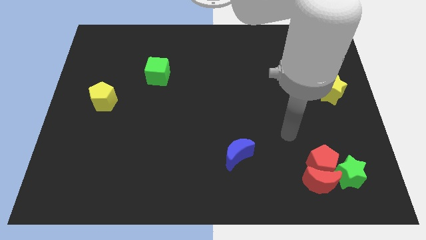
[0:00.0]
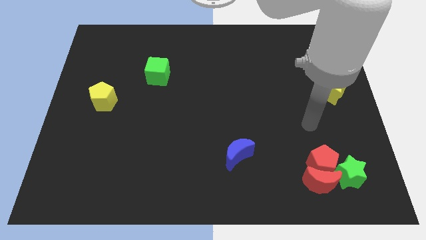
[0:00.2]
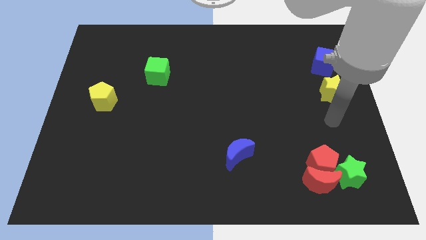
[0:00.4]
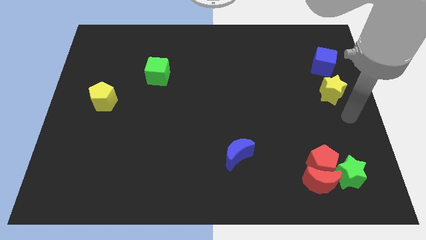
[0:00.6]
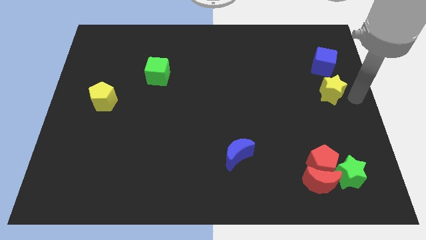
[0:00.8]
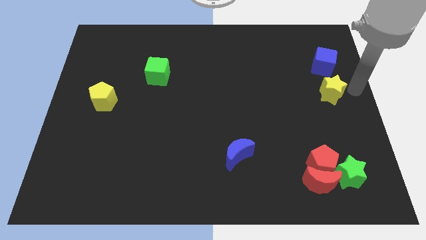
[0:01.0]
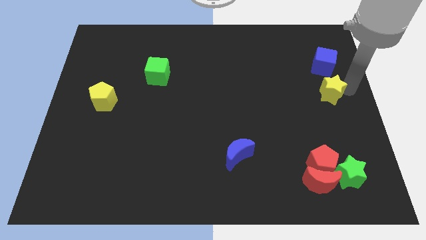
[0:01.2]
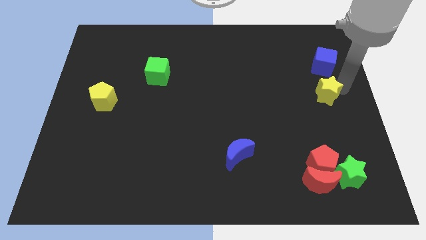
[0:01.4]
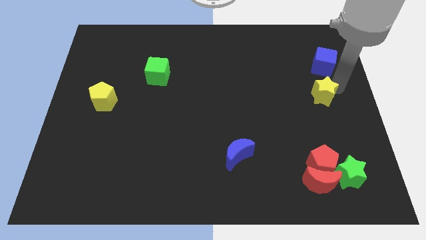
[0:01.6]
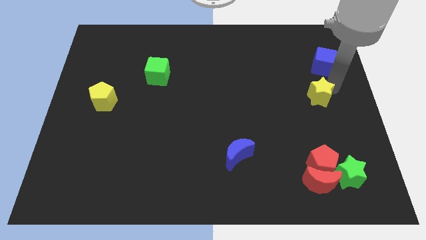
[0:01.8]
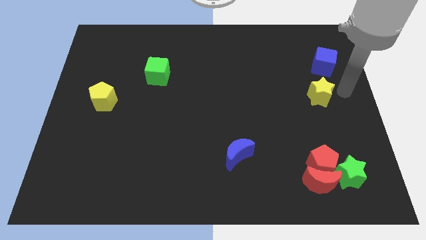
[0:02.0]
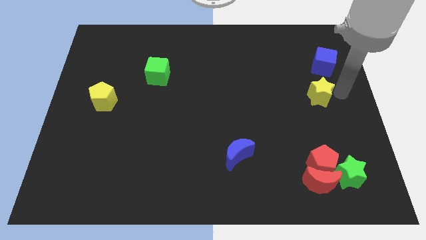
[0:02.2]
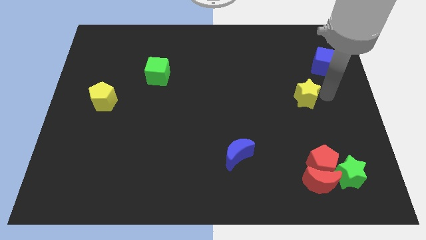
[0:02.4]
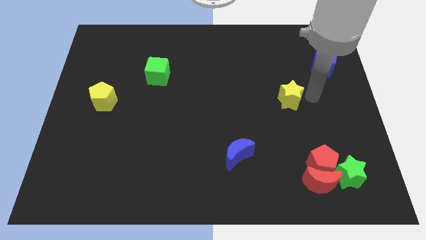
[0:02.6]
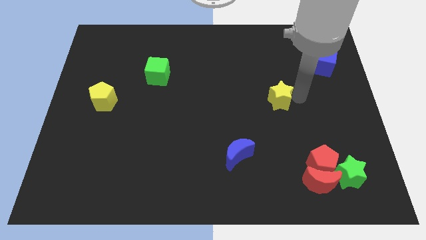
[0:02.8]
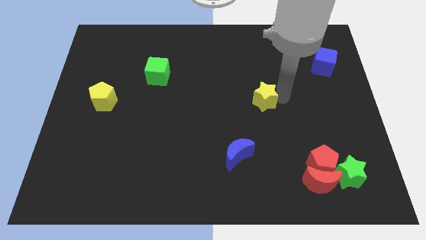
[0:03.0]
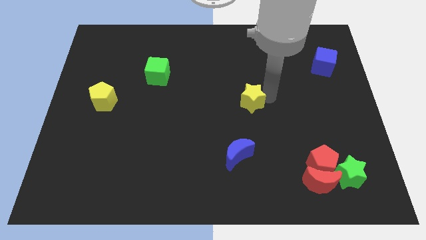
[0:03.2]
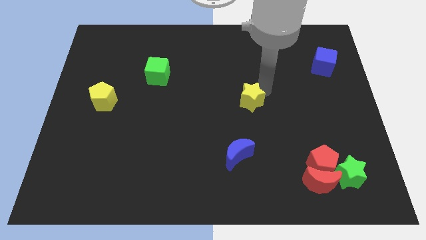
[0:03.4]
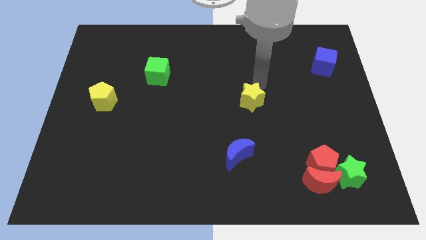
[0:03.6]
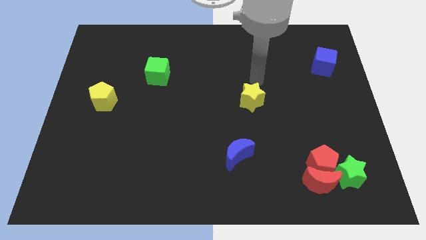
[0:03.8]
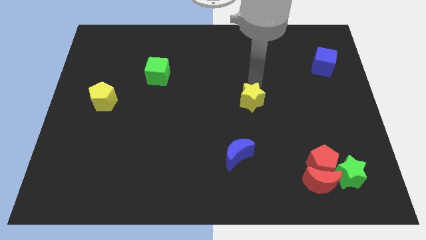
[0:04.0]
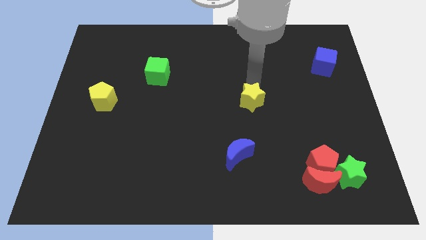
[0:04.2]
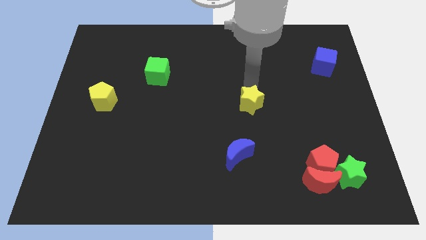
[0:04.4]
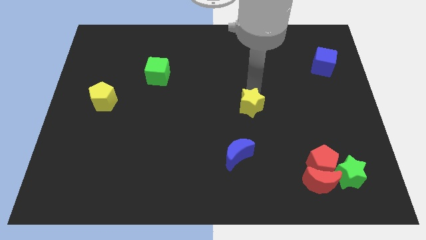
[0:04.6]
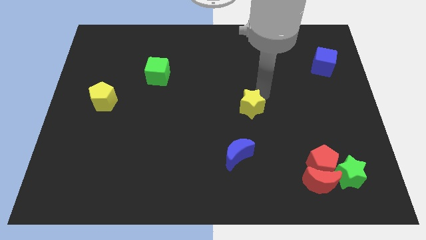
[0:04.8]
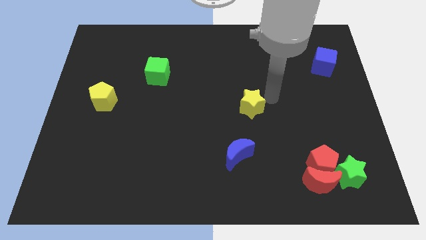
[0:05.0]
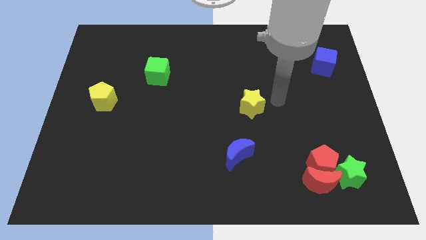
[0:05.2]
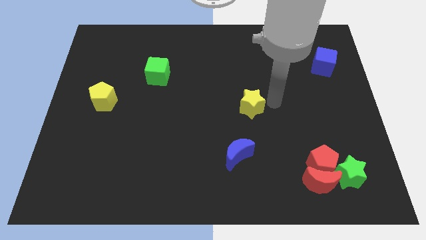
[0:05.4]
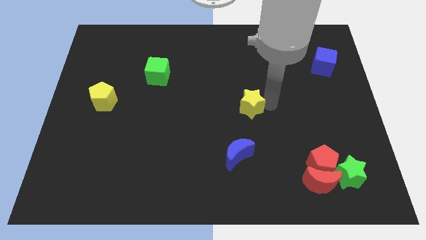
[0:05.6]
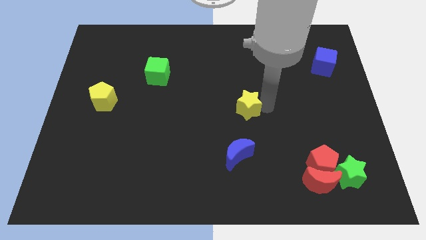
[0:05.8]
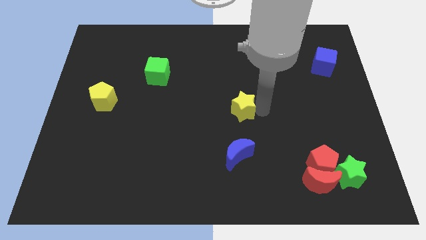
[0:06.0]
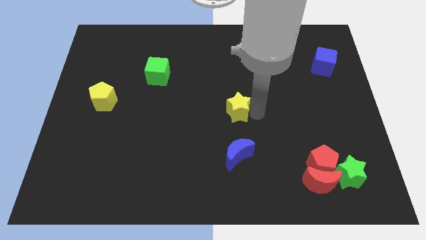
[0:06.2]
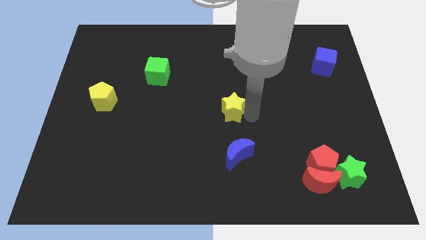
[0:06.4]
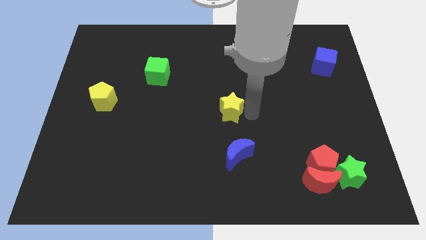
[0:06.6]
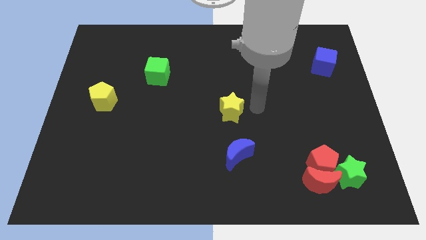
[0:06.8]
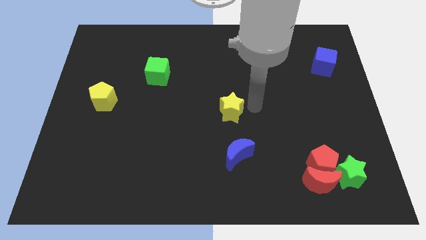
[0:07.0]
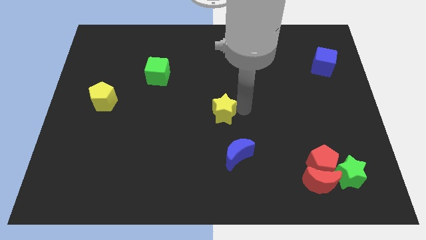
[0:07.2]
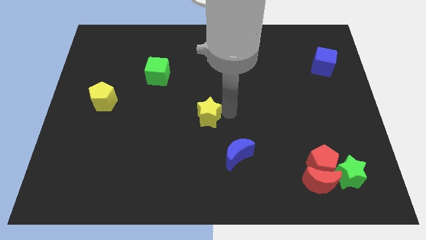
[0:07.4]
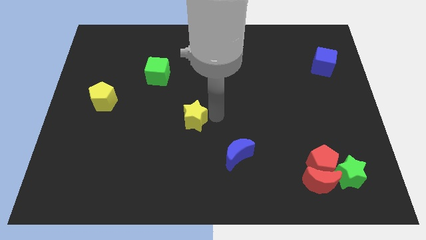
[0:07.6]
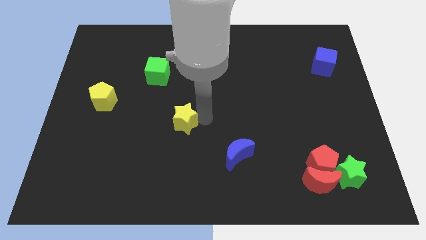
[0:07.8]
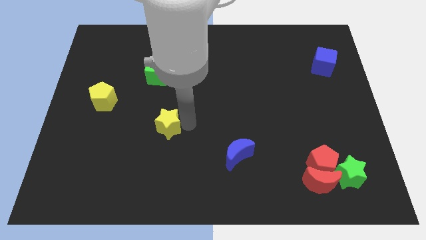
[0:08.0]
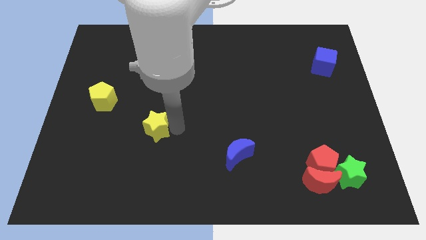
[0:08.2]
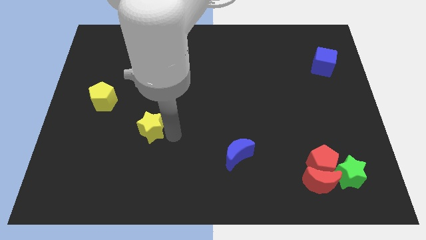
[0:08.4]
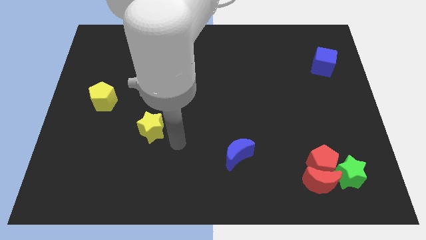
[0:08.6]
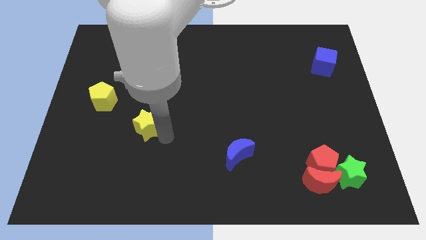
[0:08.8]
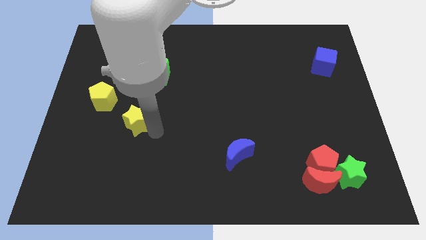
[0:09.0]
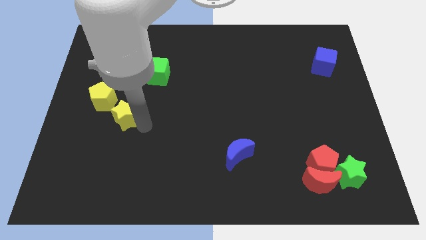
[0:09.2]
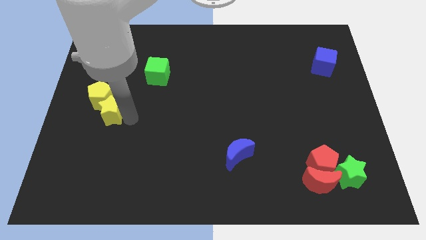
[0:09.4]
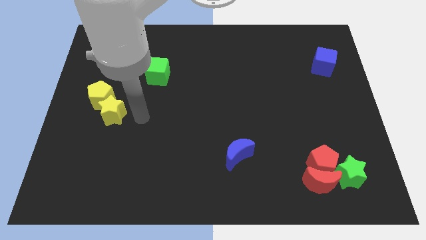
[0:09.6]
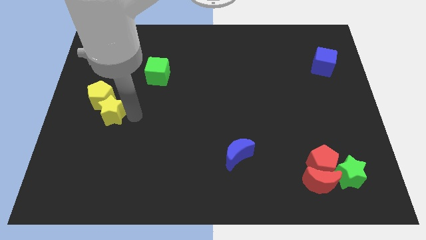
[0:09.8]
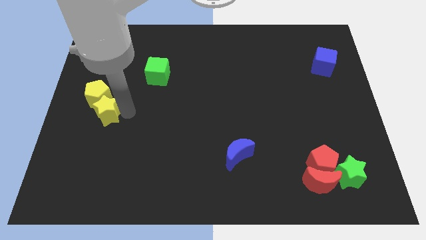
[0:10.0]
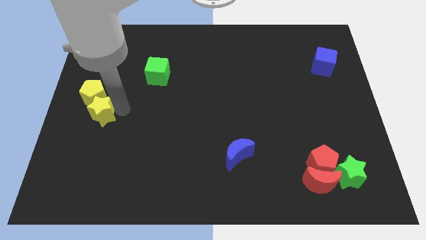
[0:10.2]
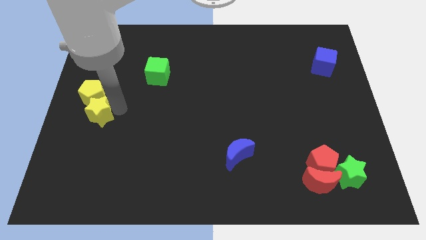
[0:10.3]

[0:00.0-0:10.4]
slide the yellow star to the left side of the board

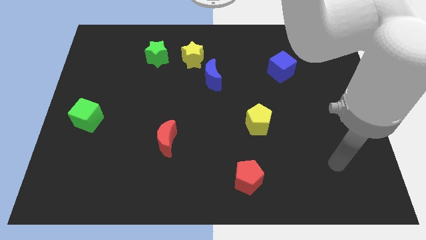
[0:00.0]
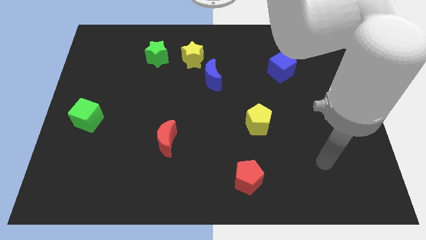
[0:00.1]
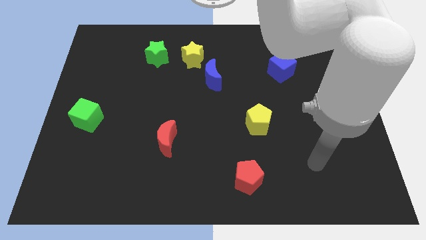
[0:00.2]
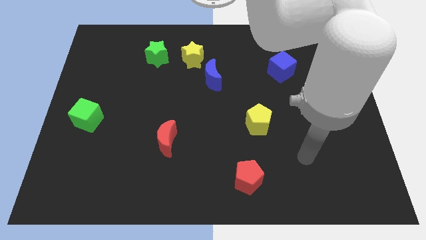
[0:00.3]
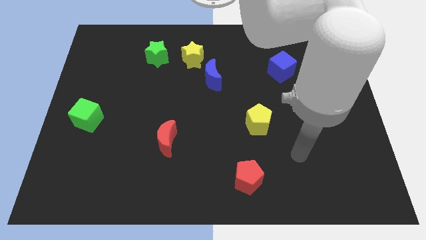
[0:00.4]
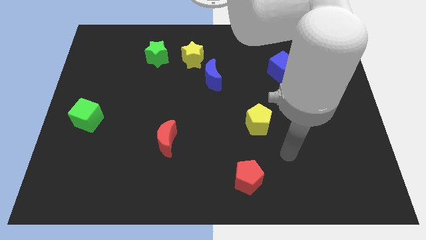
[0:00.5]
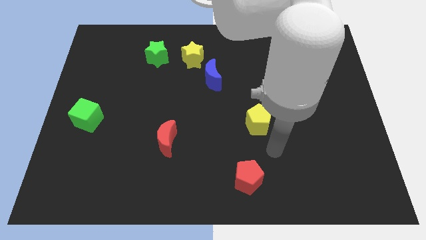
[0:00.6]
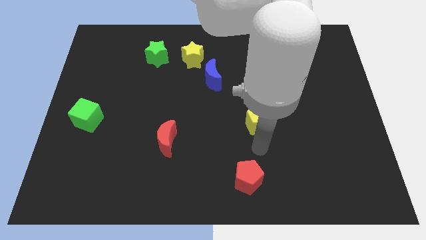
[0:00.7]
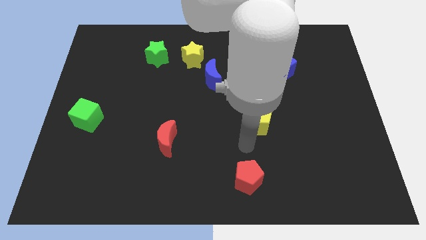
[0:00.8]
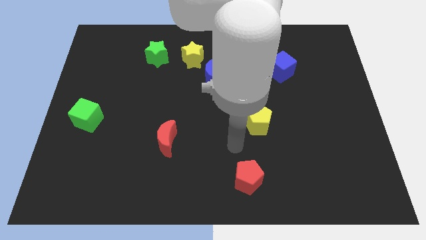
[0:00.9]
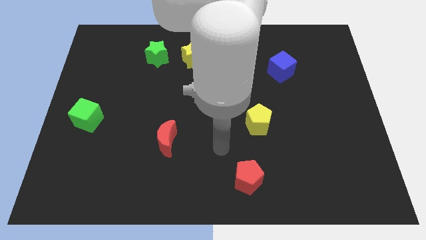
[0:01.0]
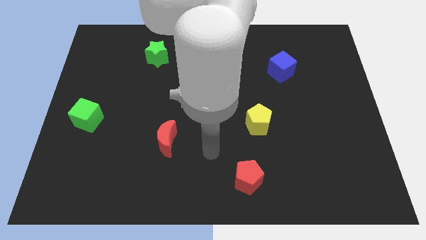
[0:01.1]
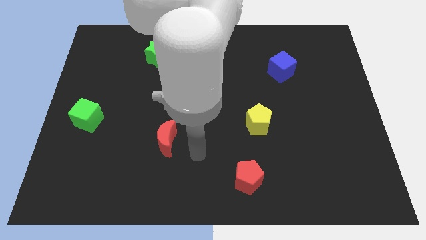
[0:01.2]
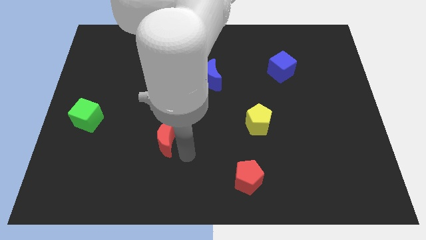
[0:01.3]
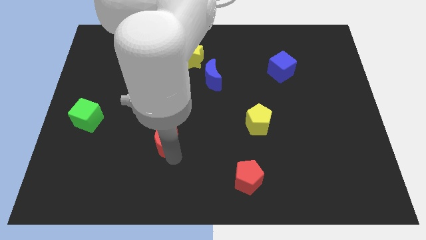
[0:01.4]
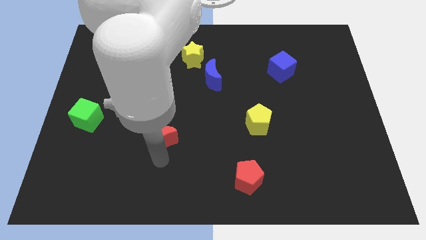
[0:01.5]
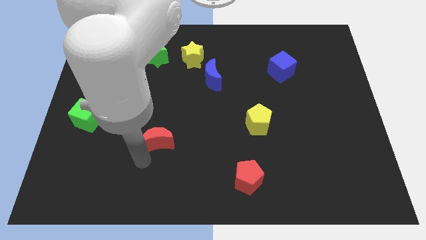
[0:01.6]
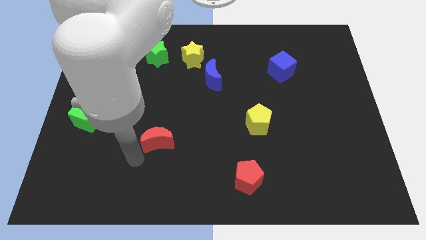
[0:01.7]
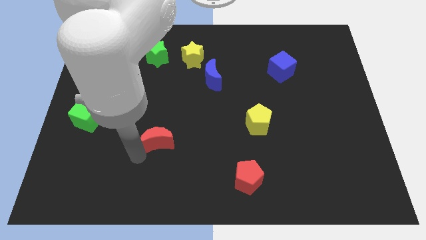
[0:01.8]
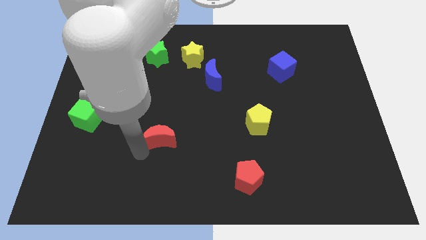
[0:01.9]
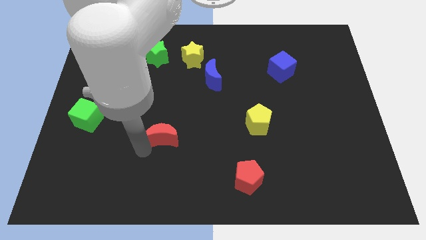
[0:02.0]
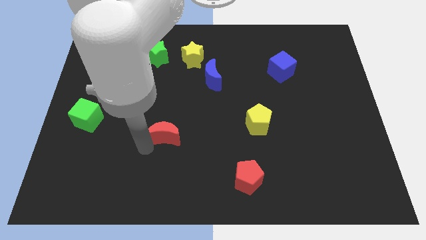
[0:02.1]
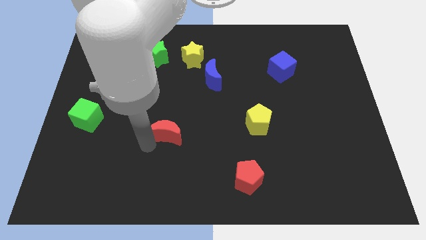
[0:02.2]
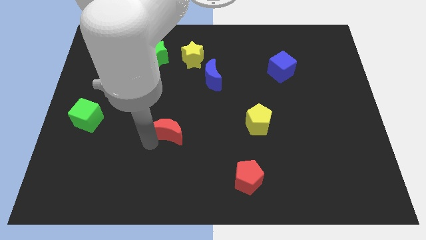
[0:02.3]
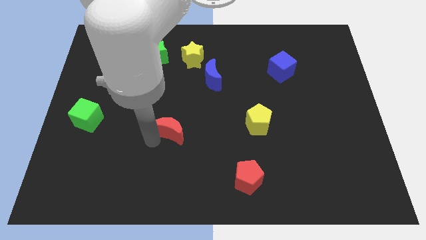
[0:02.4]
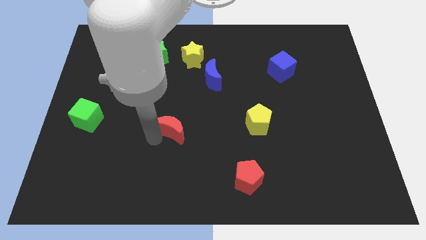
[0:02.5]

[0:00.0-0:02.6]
put the red moon to the middle
